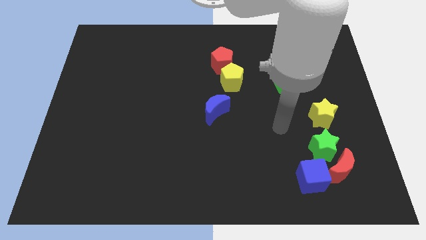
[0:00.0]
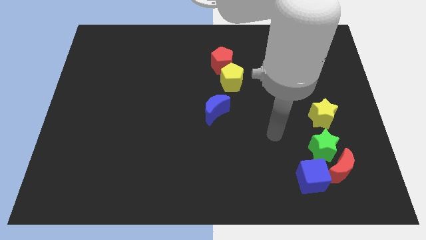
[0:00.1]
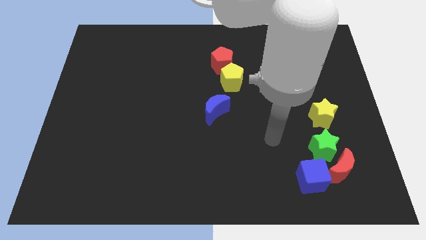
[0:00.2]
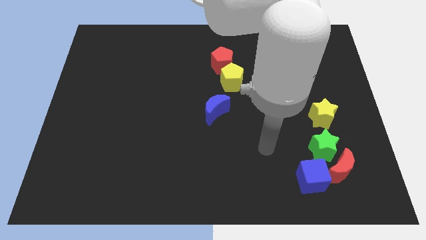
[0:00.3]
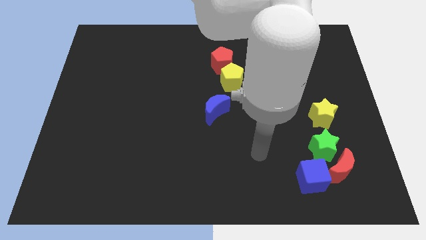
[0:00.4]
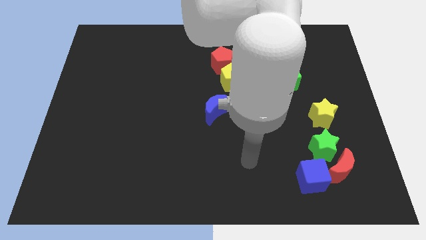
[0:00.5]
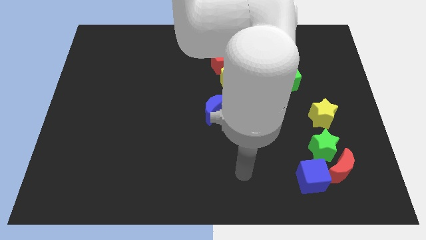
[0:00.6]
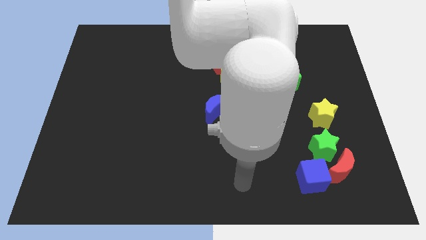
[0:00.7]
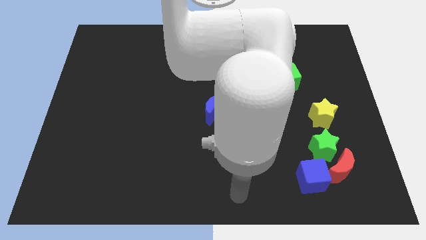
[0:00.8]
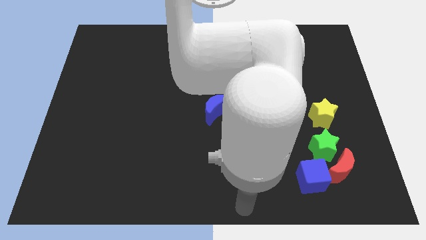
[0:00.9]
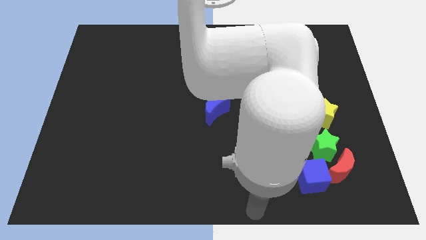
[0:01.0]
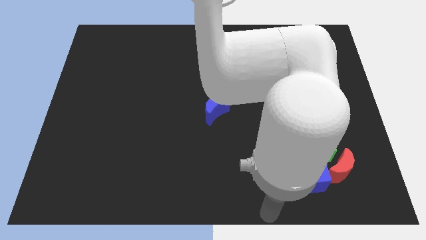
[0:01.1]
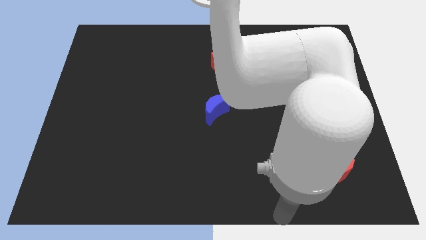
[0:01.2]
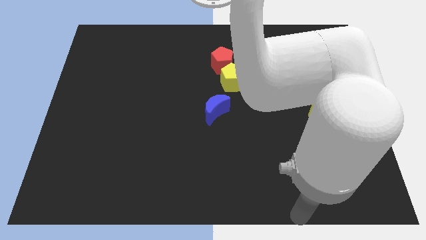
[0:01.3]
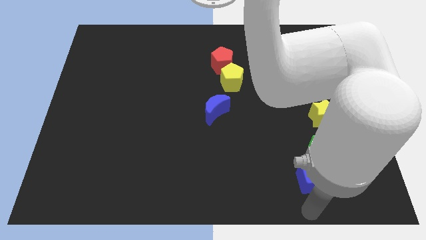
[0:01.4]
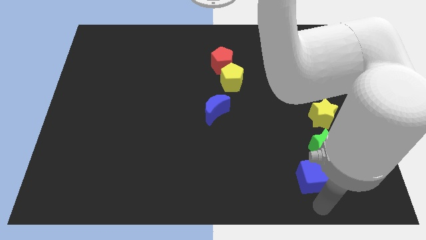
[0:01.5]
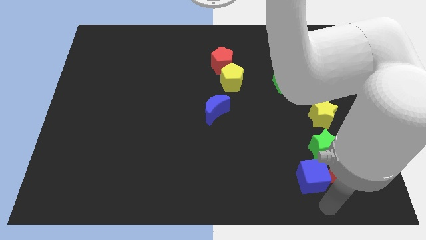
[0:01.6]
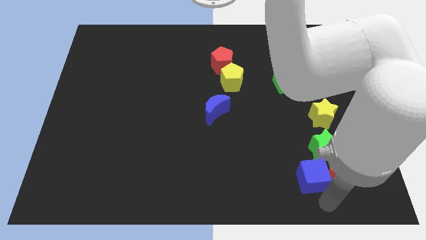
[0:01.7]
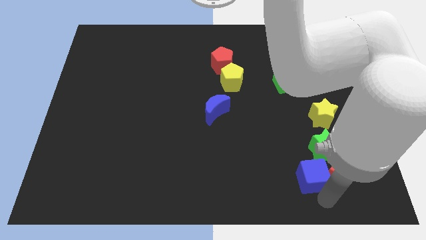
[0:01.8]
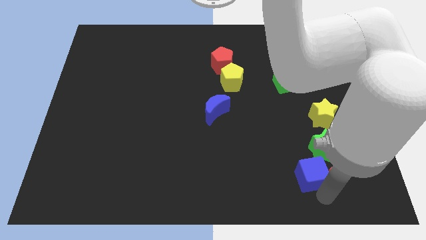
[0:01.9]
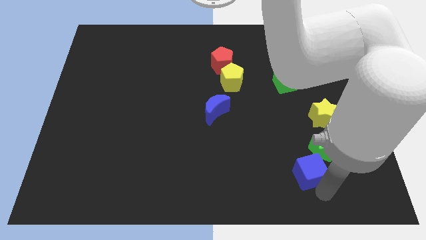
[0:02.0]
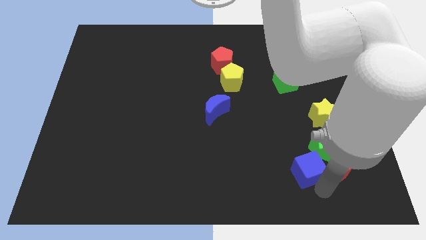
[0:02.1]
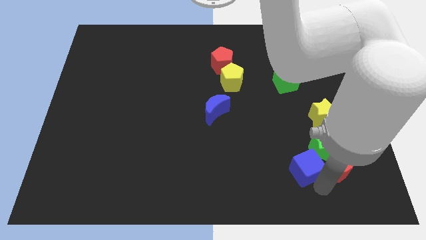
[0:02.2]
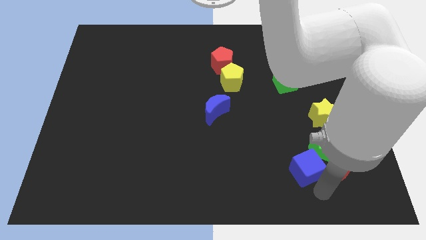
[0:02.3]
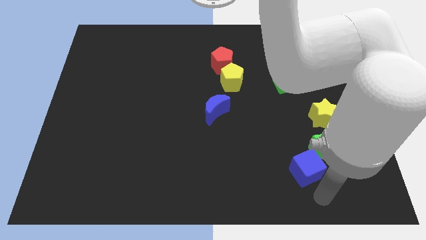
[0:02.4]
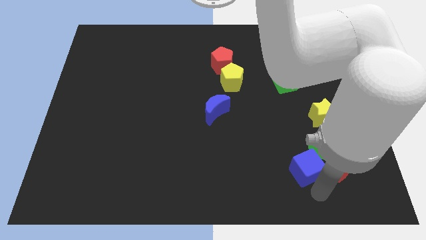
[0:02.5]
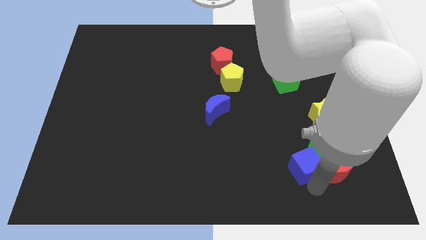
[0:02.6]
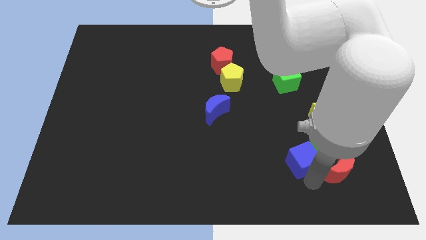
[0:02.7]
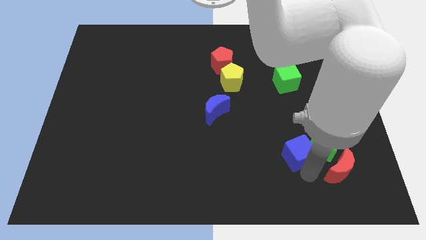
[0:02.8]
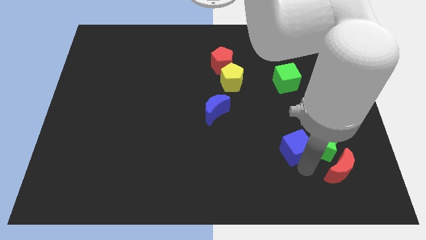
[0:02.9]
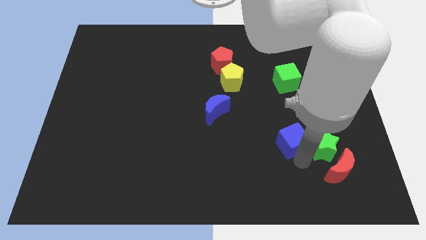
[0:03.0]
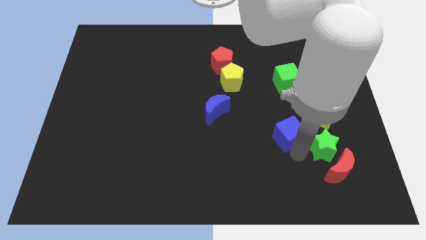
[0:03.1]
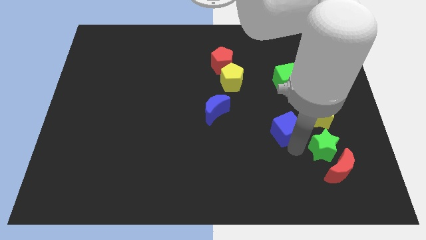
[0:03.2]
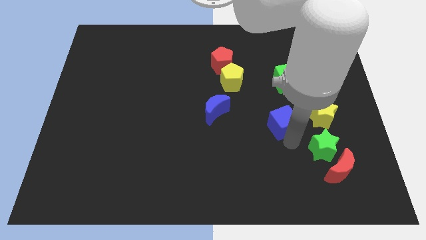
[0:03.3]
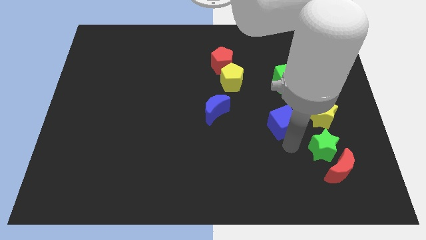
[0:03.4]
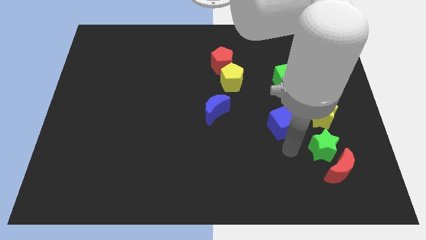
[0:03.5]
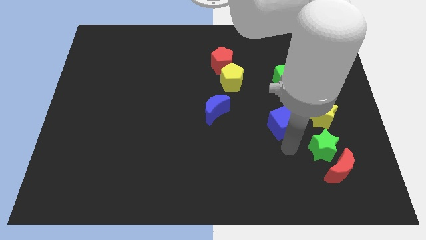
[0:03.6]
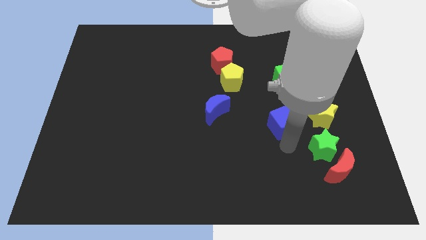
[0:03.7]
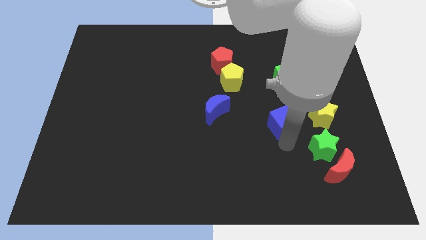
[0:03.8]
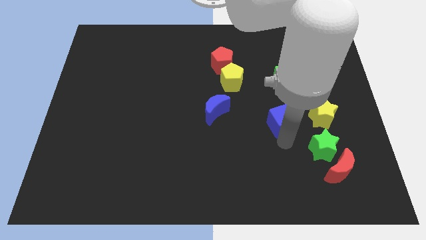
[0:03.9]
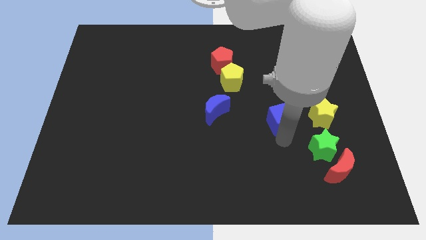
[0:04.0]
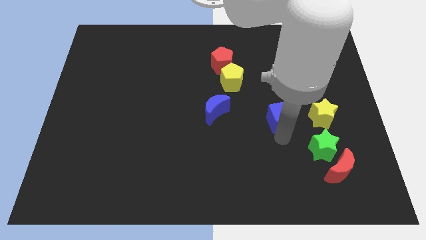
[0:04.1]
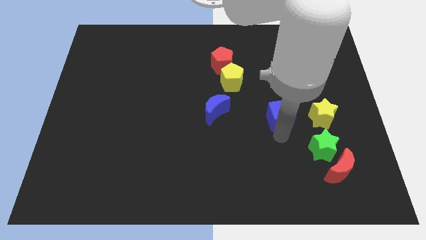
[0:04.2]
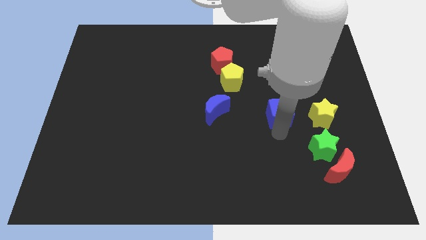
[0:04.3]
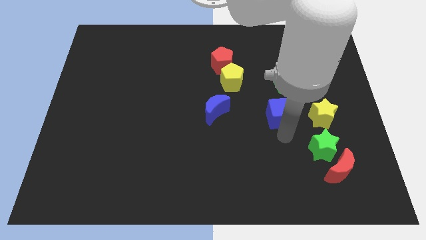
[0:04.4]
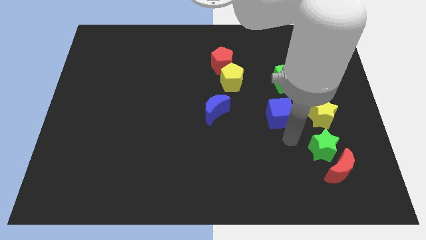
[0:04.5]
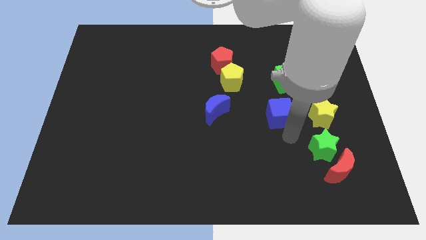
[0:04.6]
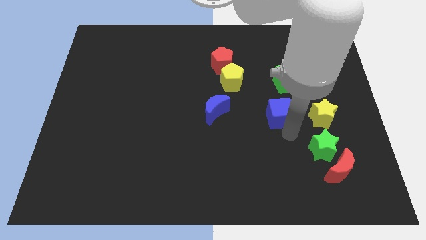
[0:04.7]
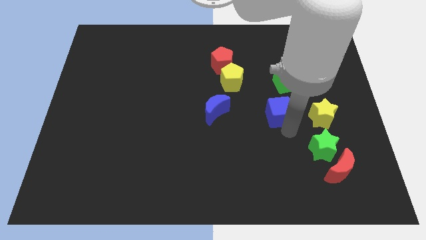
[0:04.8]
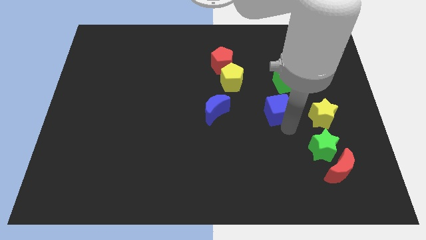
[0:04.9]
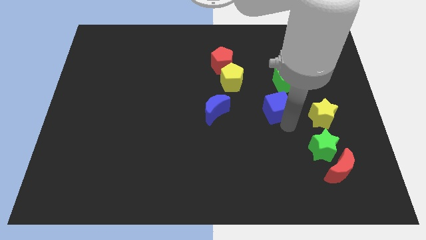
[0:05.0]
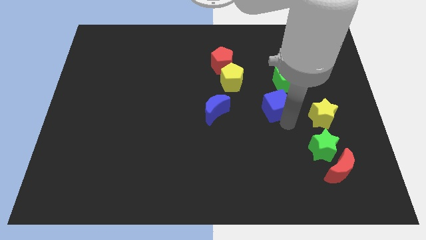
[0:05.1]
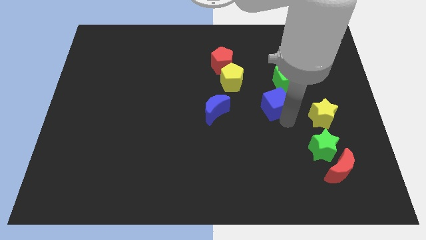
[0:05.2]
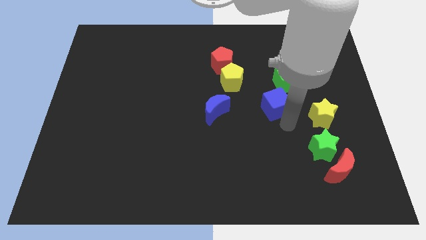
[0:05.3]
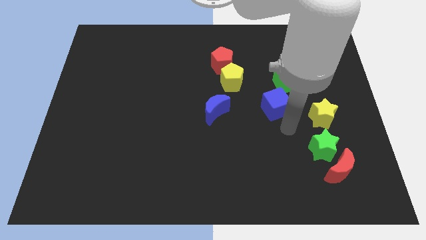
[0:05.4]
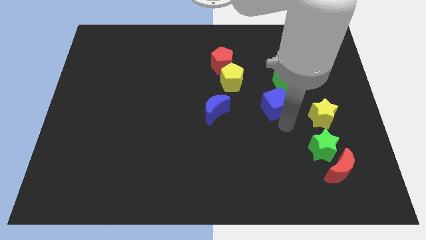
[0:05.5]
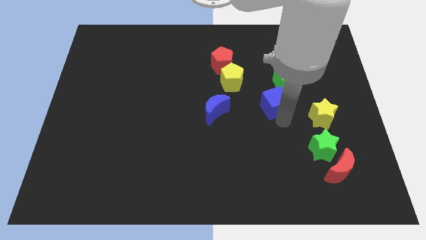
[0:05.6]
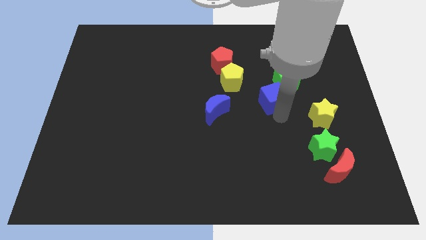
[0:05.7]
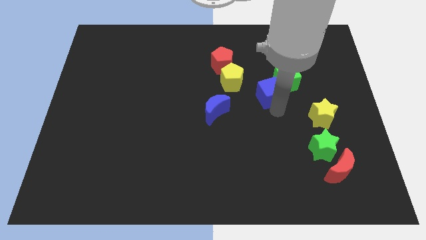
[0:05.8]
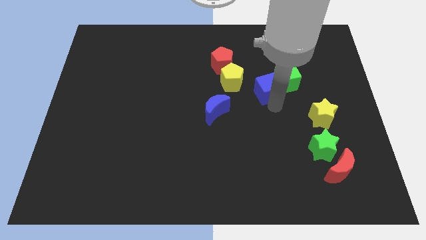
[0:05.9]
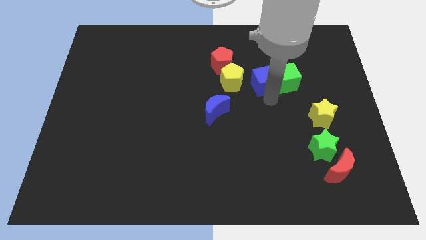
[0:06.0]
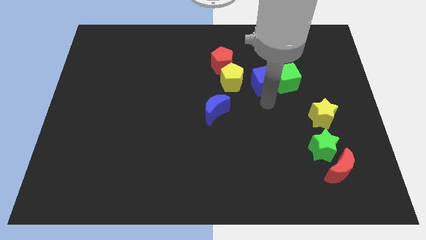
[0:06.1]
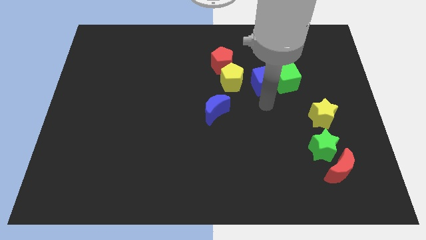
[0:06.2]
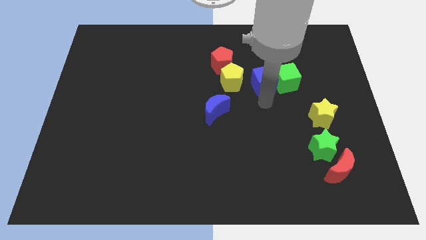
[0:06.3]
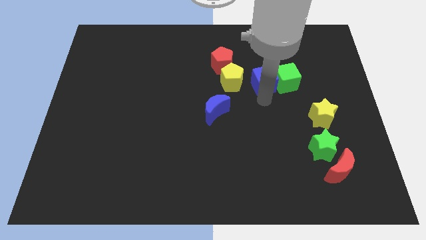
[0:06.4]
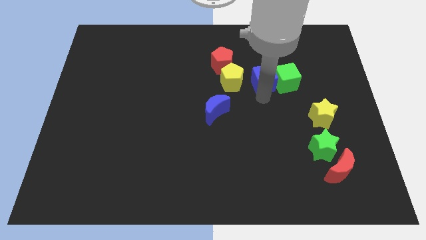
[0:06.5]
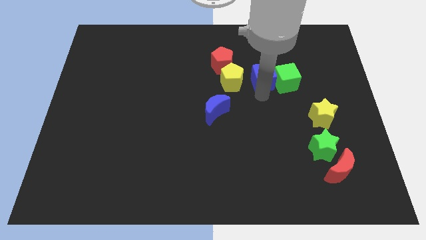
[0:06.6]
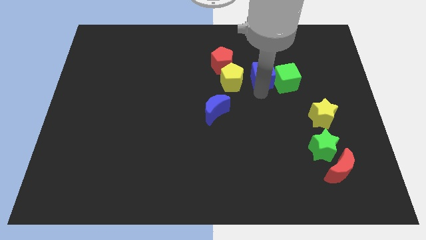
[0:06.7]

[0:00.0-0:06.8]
move the blue cube right of the red pentagon
